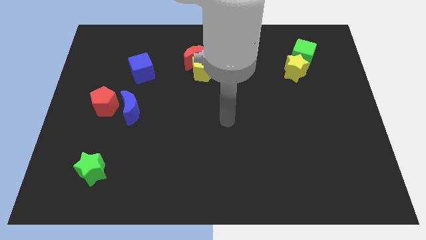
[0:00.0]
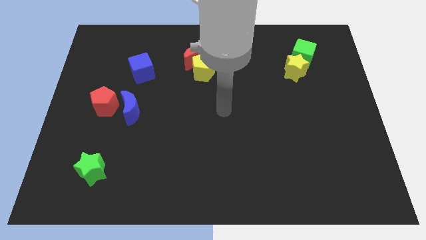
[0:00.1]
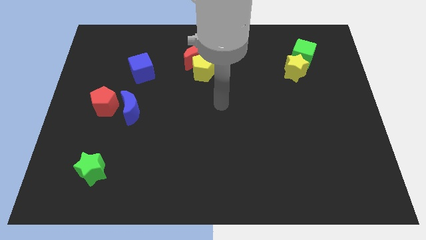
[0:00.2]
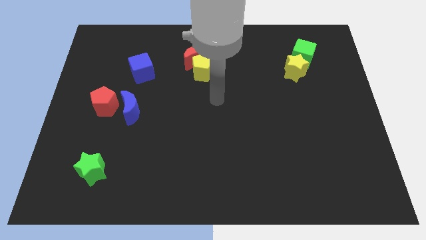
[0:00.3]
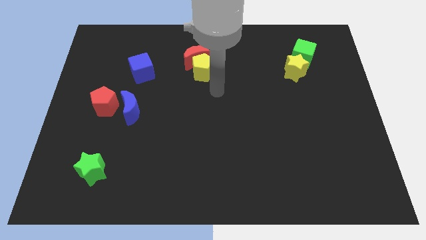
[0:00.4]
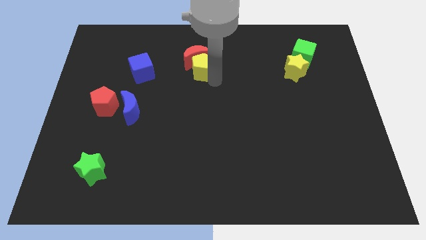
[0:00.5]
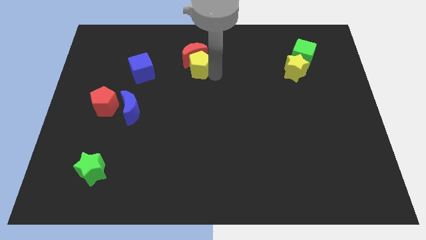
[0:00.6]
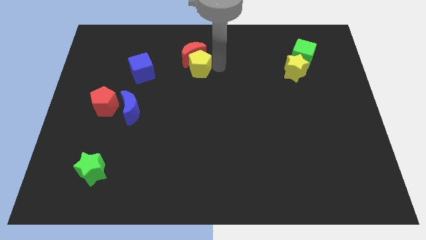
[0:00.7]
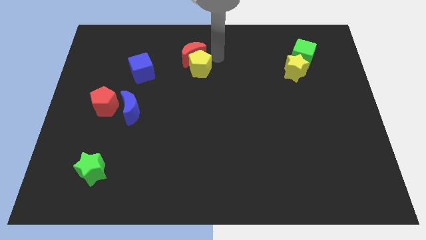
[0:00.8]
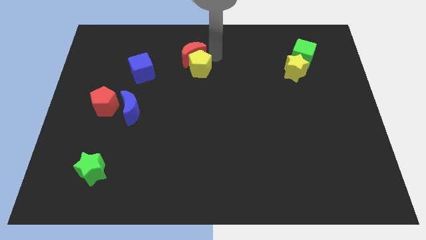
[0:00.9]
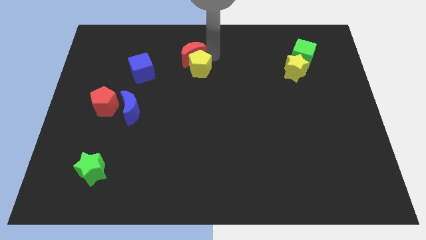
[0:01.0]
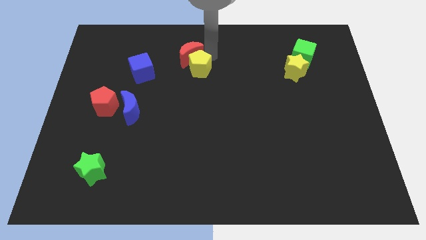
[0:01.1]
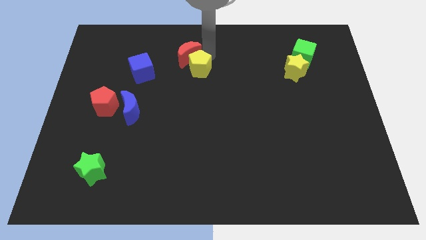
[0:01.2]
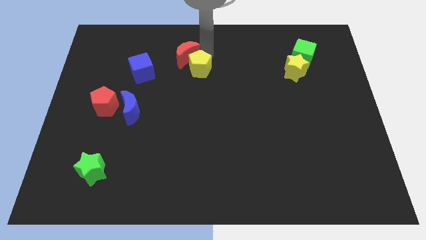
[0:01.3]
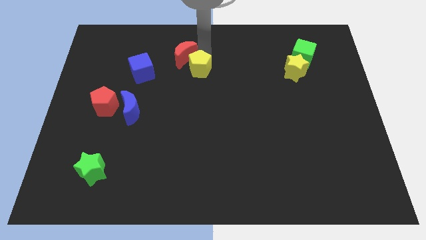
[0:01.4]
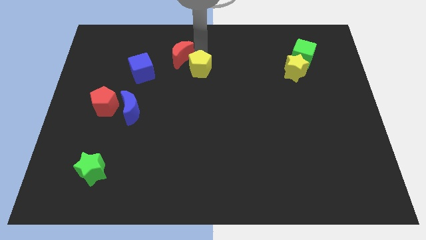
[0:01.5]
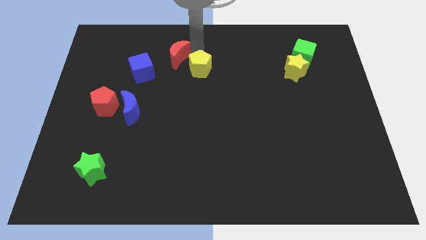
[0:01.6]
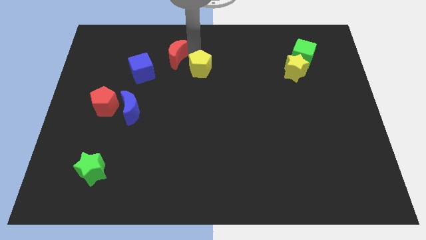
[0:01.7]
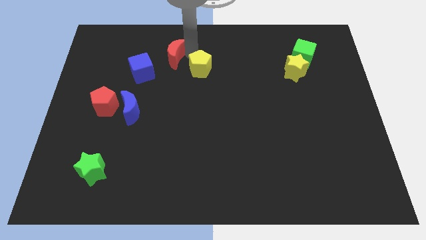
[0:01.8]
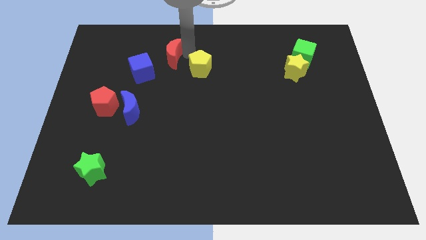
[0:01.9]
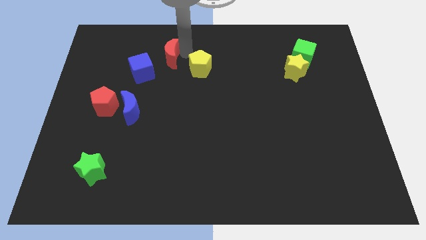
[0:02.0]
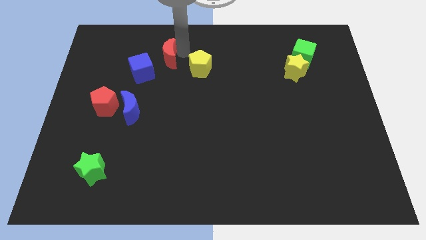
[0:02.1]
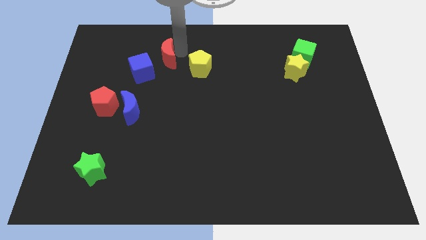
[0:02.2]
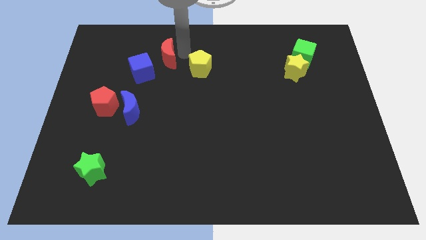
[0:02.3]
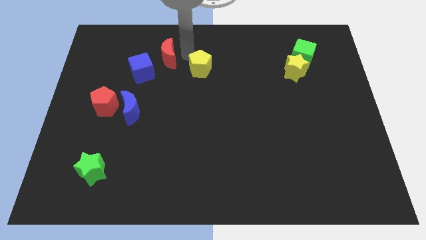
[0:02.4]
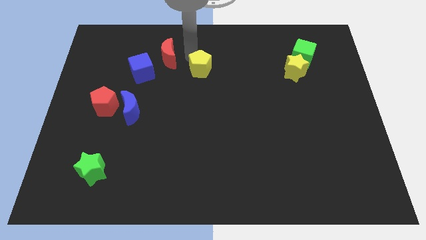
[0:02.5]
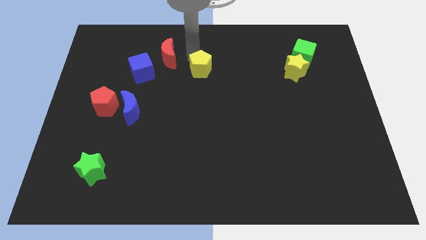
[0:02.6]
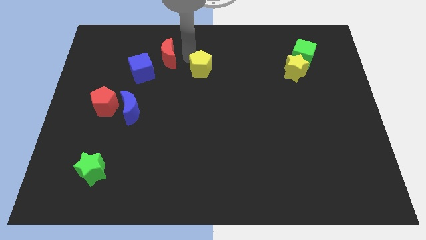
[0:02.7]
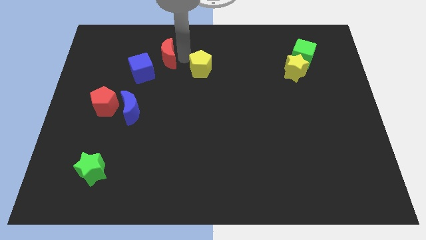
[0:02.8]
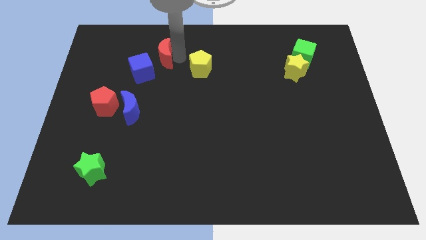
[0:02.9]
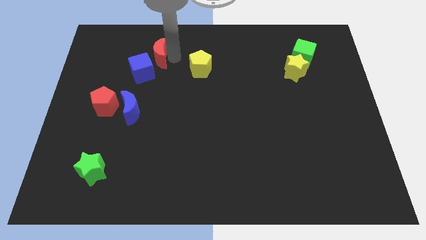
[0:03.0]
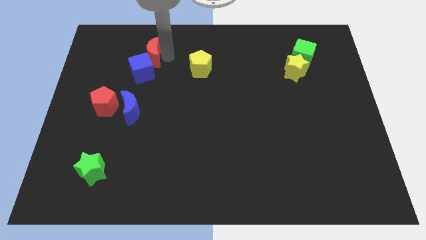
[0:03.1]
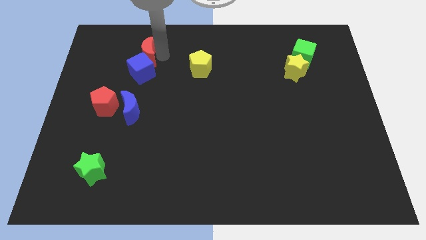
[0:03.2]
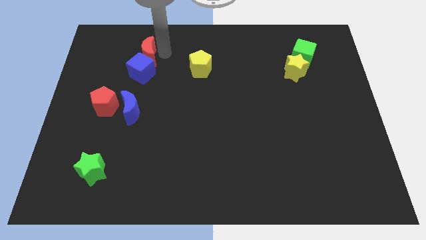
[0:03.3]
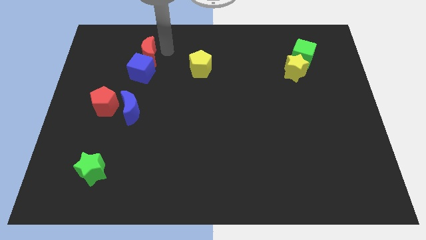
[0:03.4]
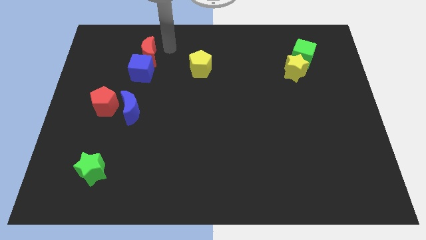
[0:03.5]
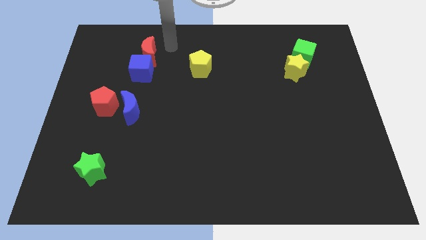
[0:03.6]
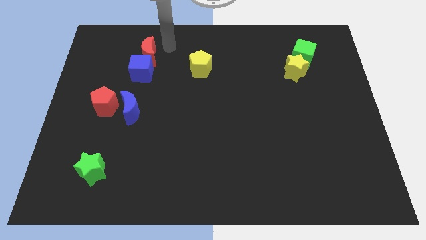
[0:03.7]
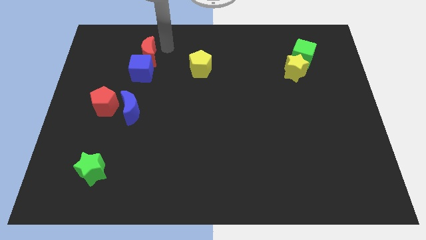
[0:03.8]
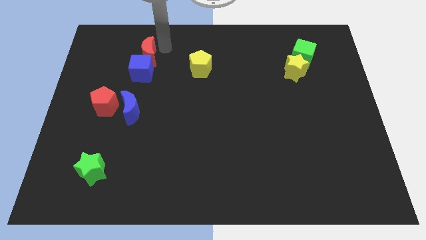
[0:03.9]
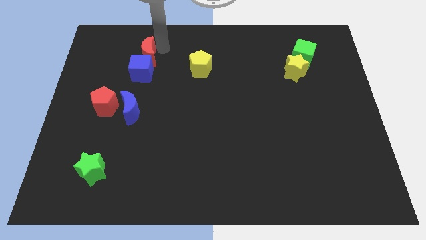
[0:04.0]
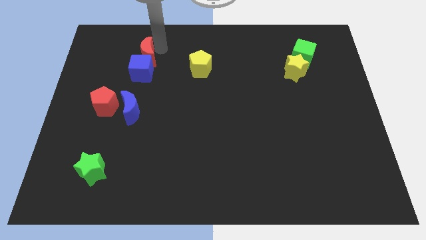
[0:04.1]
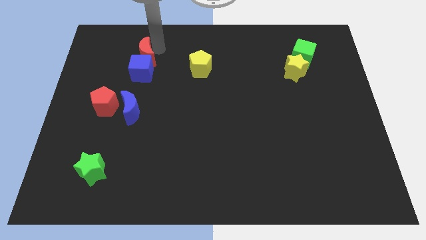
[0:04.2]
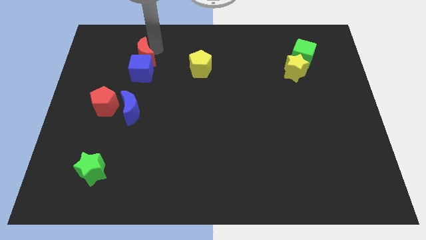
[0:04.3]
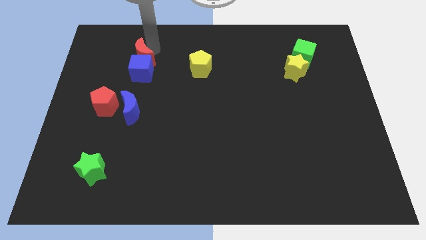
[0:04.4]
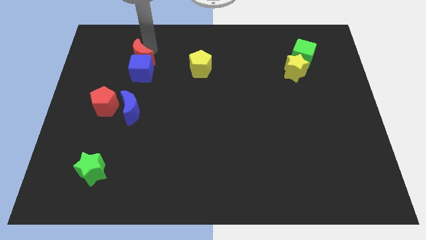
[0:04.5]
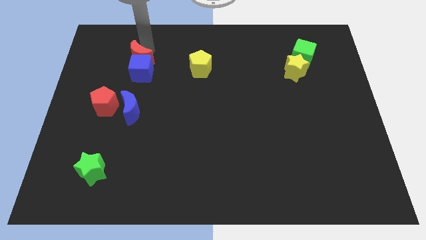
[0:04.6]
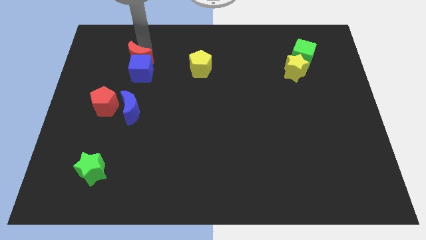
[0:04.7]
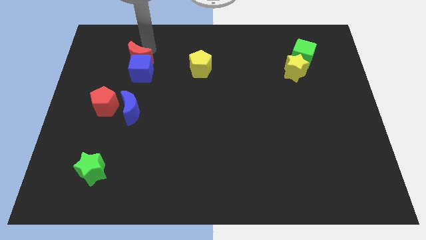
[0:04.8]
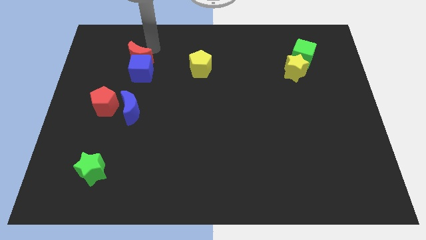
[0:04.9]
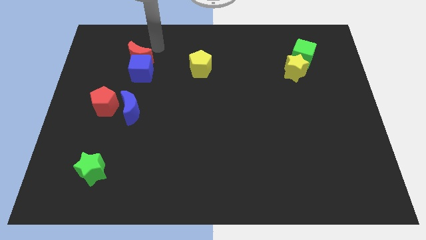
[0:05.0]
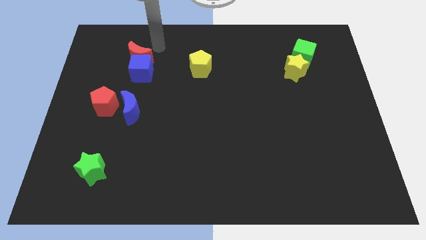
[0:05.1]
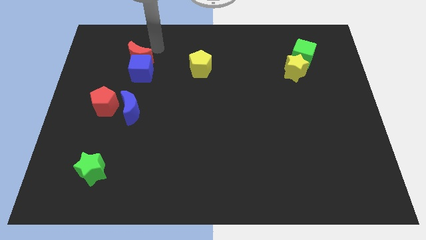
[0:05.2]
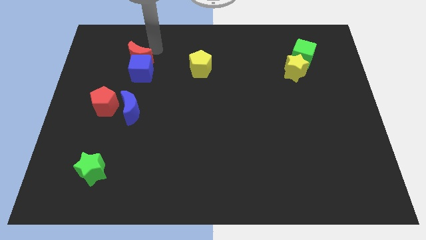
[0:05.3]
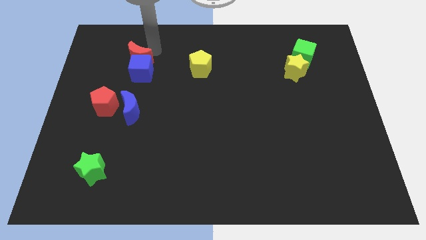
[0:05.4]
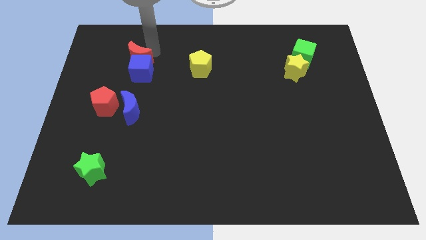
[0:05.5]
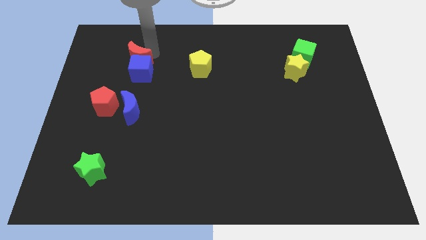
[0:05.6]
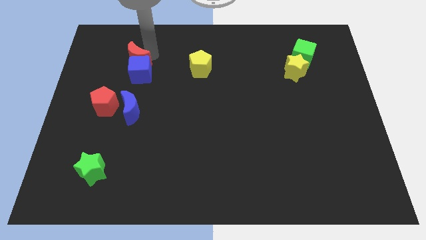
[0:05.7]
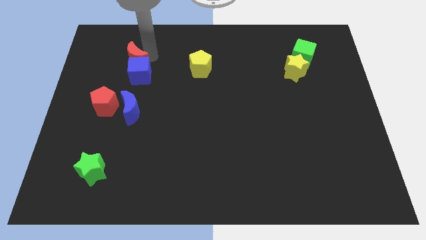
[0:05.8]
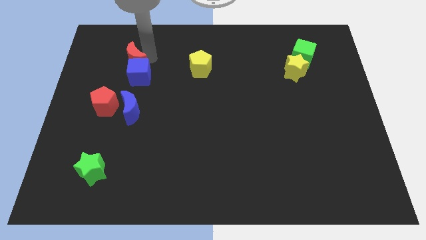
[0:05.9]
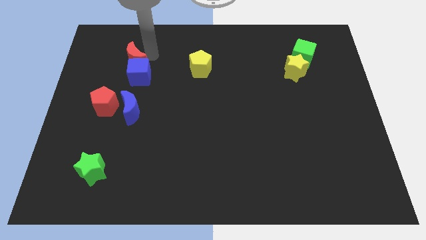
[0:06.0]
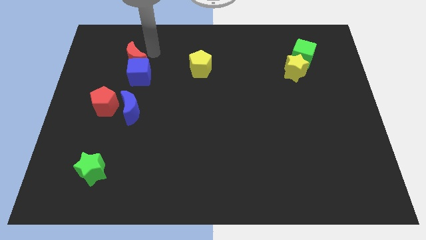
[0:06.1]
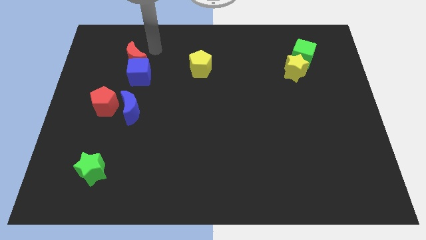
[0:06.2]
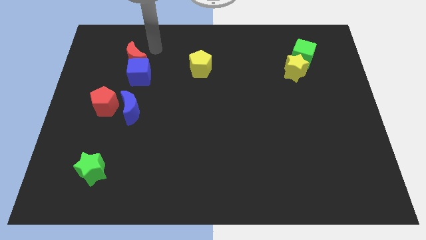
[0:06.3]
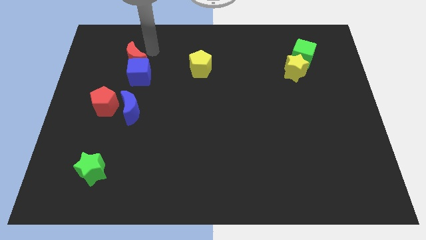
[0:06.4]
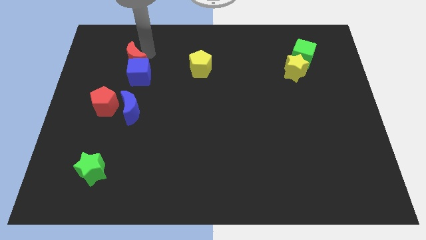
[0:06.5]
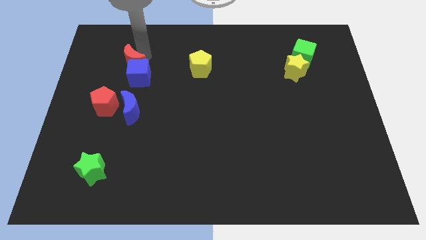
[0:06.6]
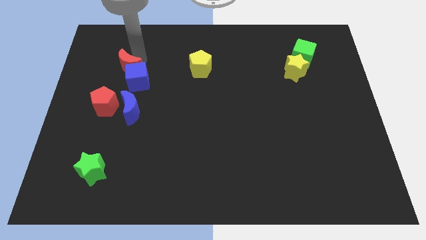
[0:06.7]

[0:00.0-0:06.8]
put the red moon above the red pentagon
